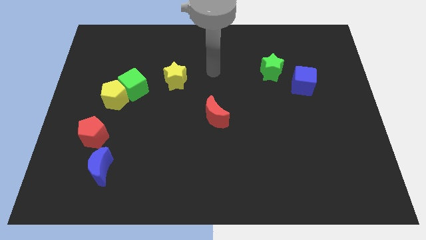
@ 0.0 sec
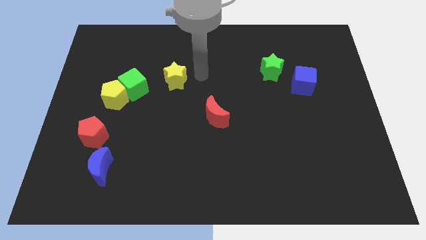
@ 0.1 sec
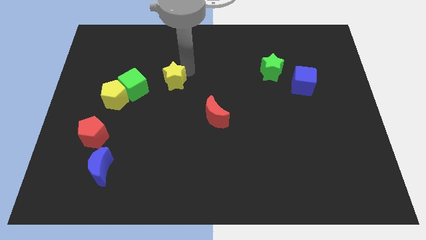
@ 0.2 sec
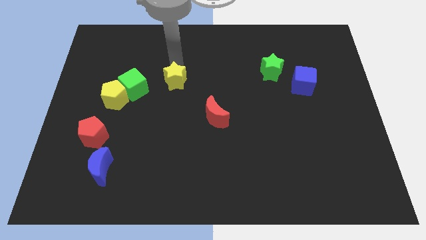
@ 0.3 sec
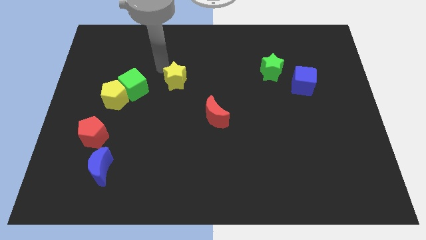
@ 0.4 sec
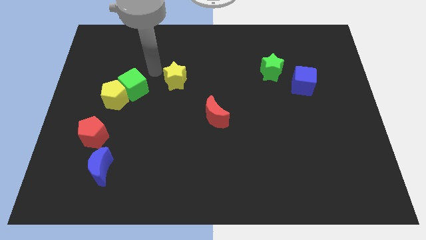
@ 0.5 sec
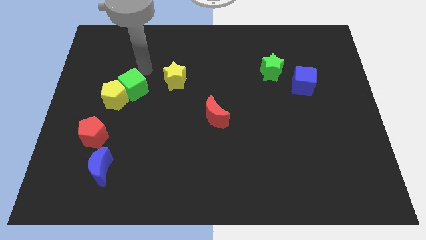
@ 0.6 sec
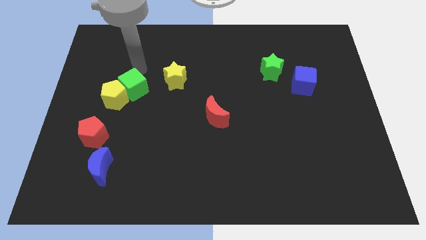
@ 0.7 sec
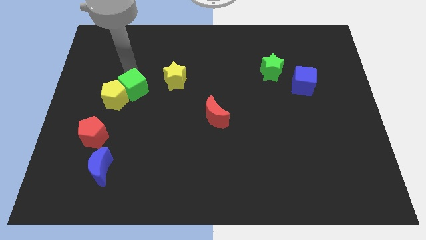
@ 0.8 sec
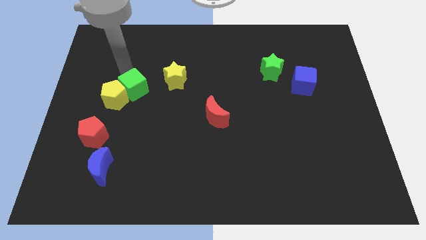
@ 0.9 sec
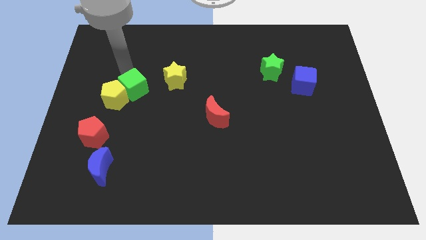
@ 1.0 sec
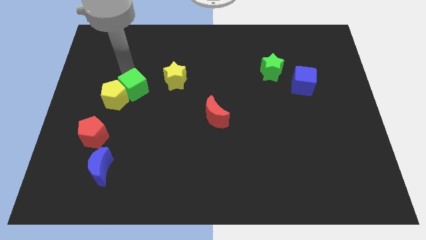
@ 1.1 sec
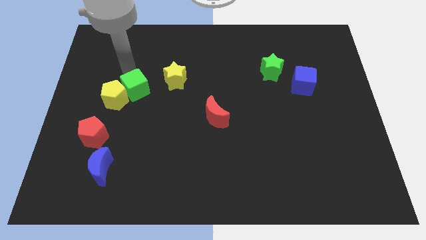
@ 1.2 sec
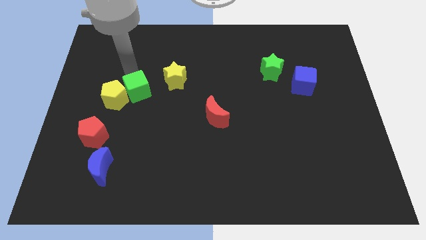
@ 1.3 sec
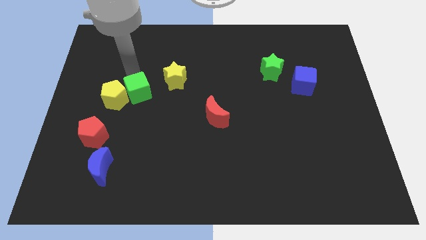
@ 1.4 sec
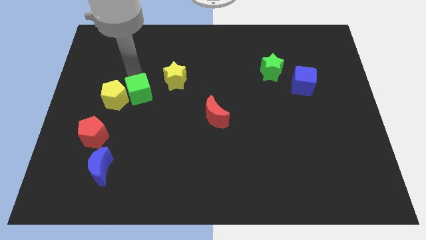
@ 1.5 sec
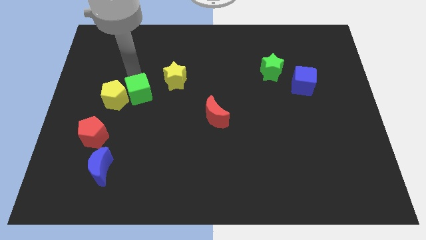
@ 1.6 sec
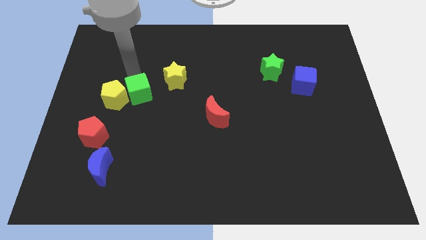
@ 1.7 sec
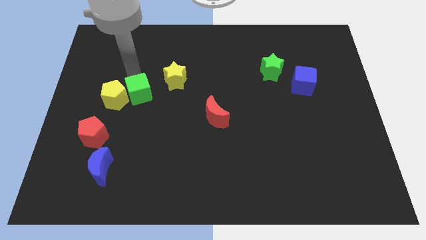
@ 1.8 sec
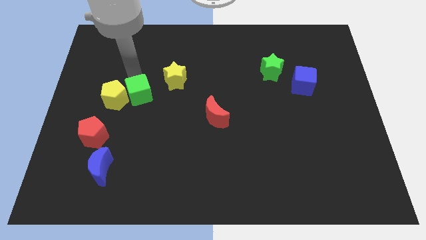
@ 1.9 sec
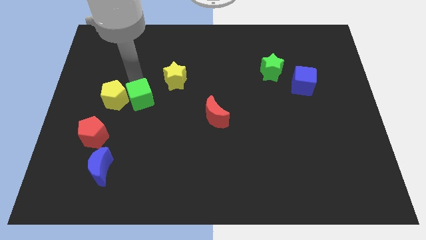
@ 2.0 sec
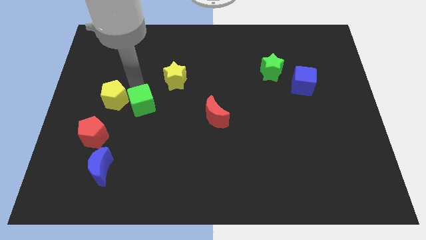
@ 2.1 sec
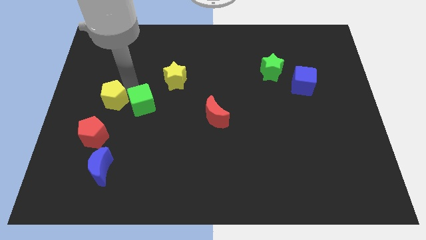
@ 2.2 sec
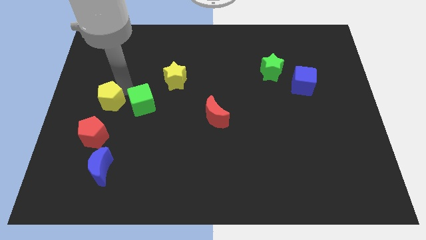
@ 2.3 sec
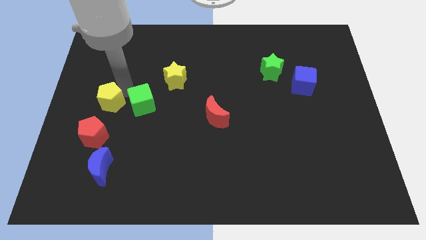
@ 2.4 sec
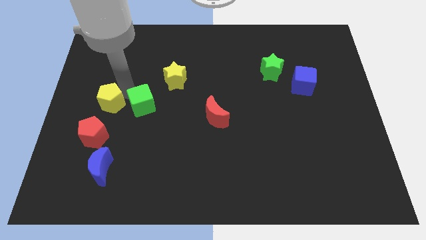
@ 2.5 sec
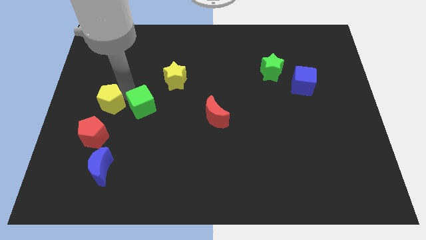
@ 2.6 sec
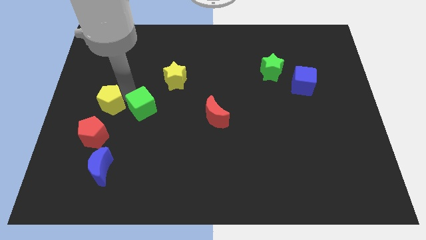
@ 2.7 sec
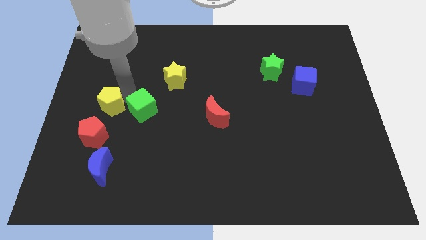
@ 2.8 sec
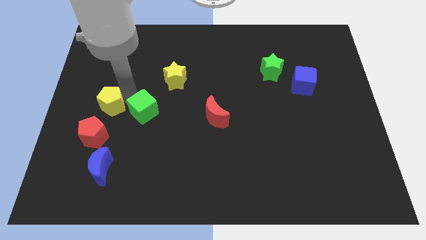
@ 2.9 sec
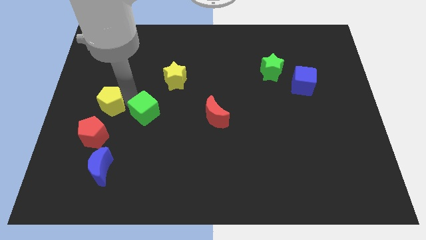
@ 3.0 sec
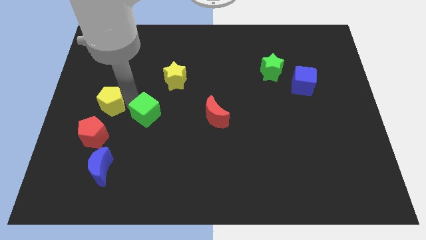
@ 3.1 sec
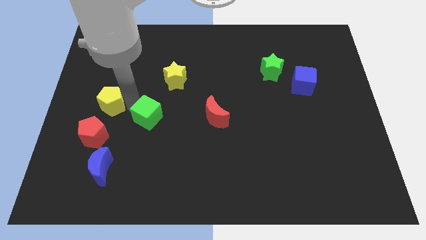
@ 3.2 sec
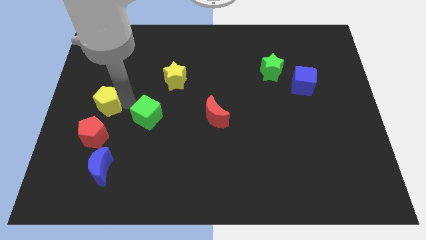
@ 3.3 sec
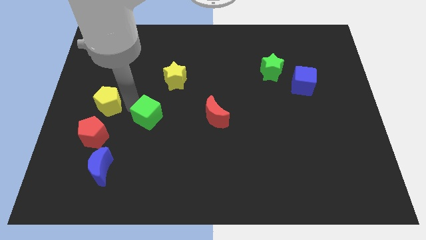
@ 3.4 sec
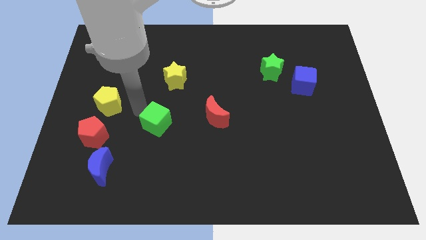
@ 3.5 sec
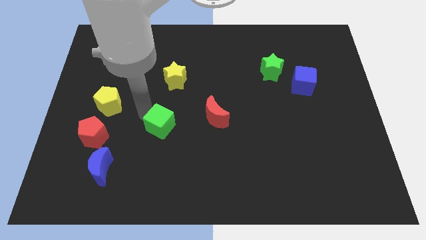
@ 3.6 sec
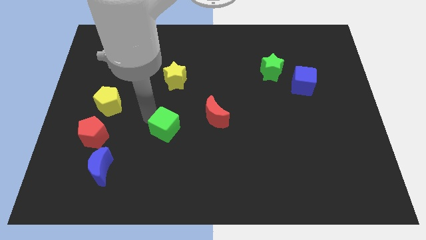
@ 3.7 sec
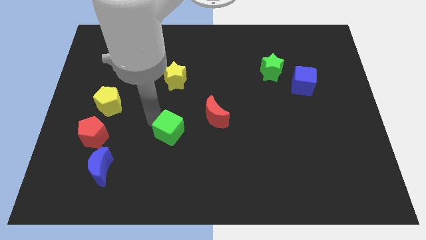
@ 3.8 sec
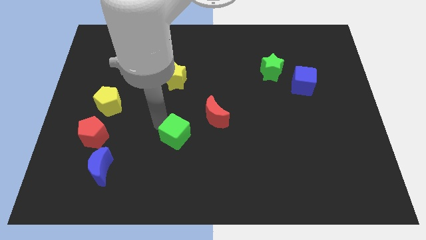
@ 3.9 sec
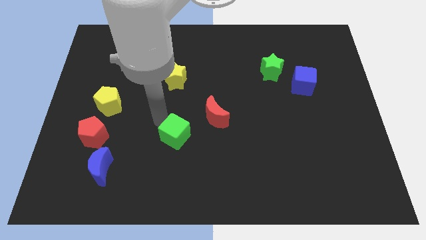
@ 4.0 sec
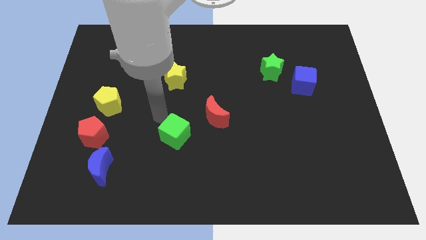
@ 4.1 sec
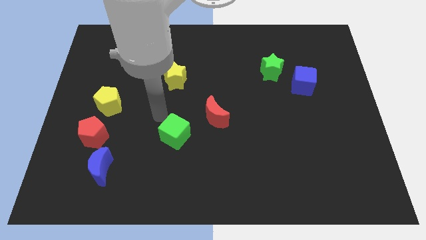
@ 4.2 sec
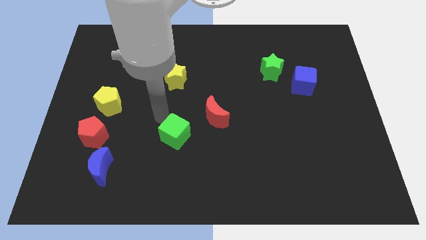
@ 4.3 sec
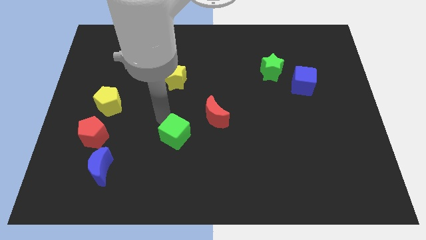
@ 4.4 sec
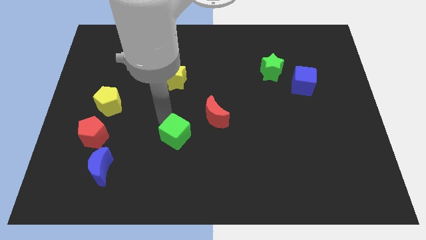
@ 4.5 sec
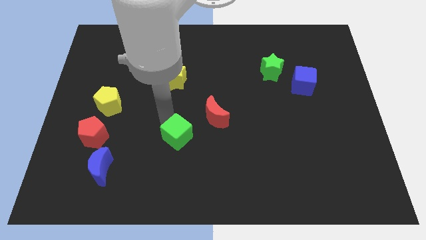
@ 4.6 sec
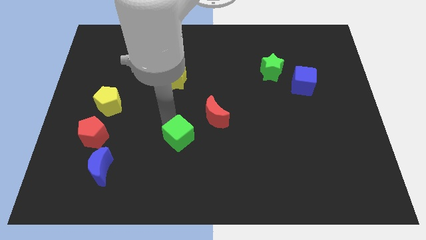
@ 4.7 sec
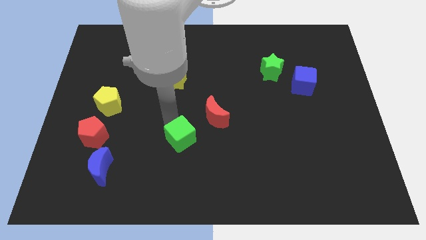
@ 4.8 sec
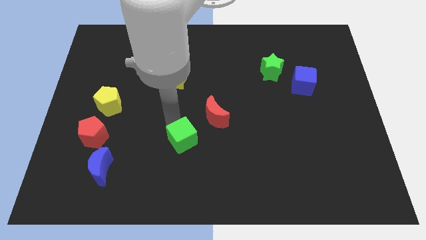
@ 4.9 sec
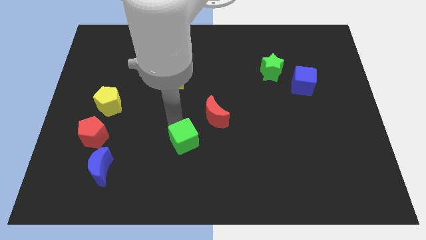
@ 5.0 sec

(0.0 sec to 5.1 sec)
push the green cube downwards and then to the right

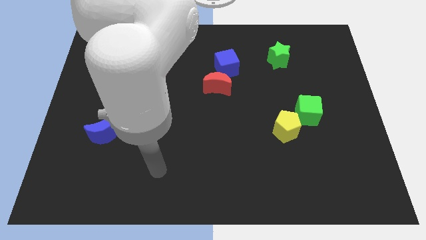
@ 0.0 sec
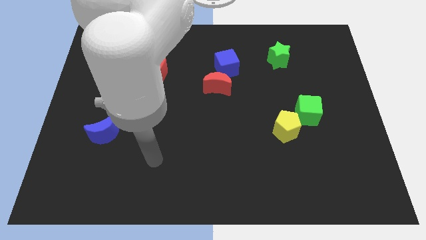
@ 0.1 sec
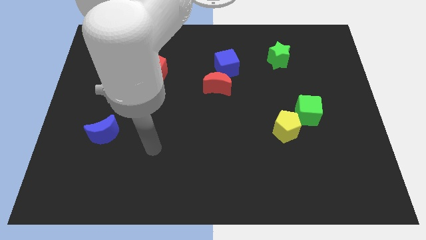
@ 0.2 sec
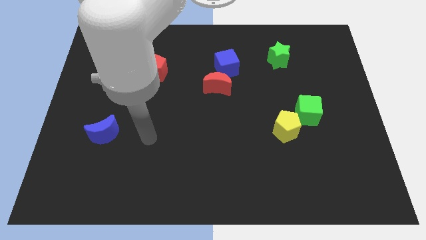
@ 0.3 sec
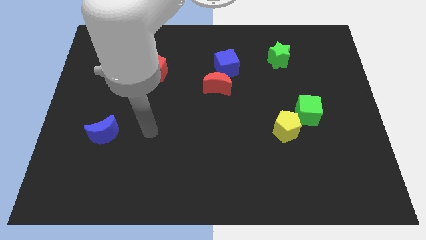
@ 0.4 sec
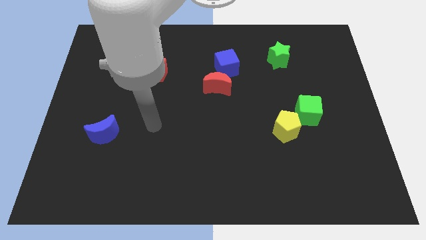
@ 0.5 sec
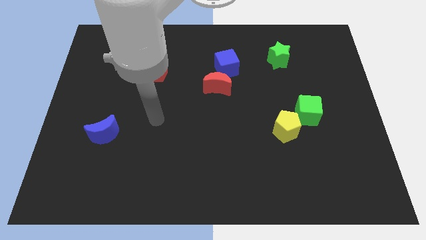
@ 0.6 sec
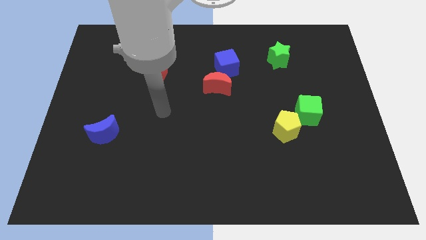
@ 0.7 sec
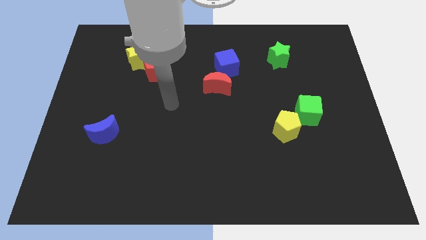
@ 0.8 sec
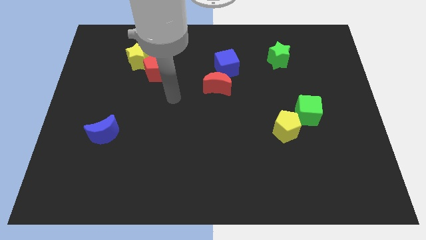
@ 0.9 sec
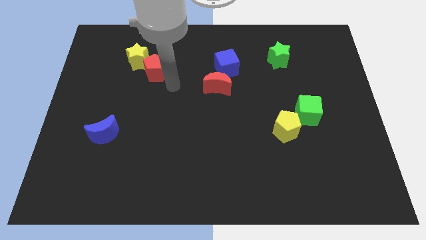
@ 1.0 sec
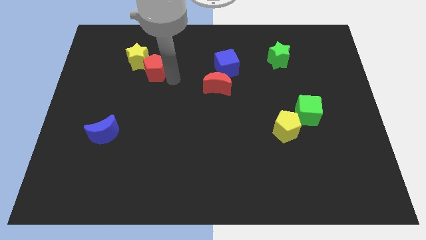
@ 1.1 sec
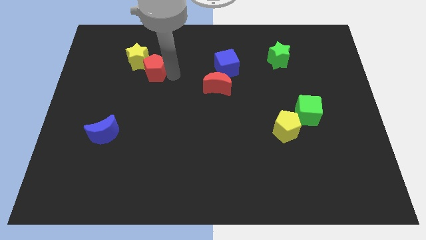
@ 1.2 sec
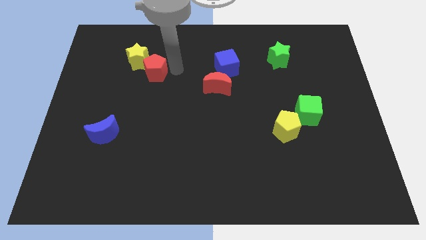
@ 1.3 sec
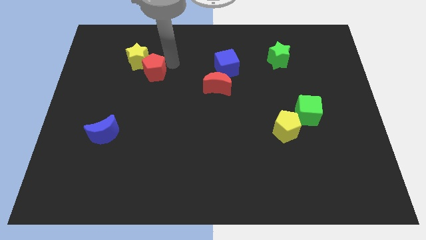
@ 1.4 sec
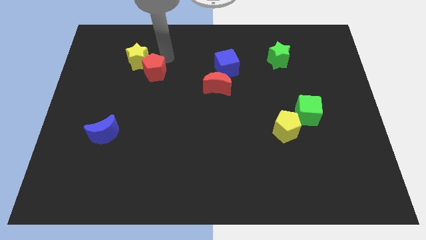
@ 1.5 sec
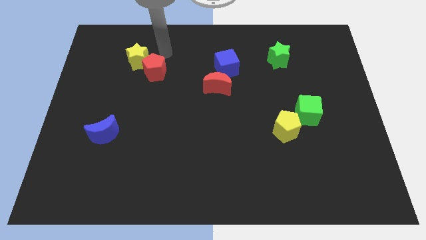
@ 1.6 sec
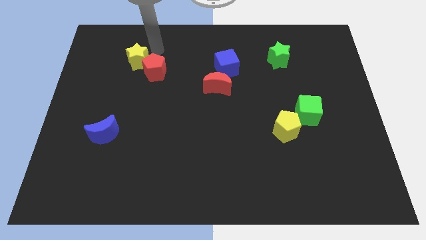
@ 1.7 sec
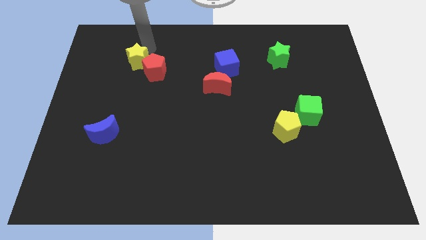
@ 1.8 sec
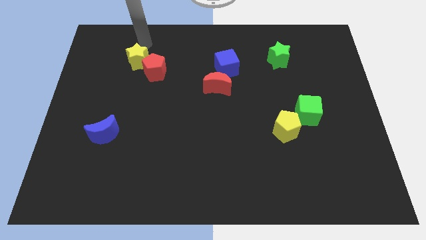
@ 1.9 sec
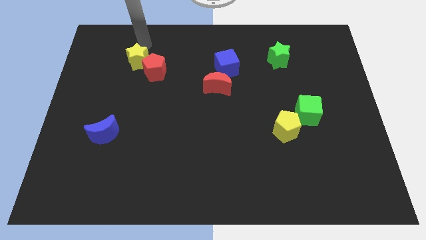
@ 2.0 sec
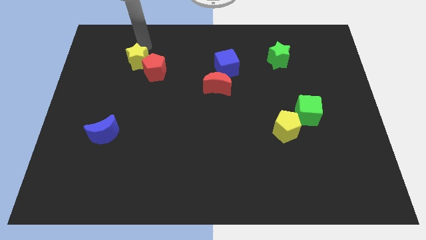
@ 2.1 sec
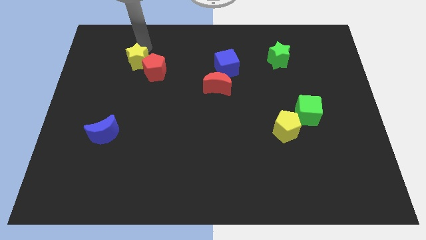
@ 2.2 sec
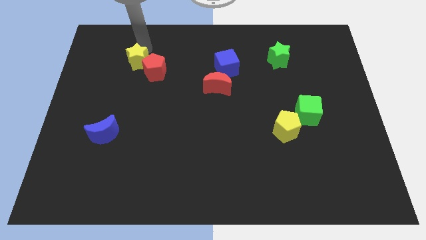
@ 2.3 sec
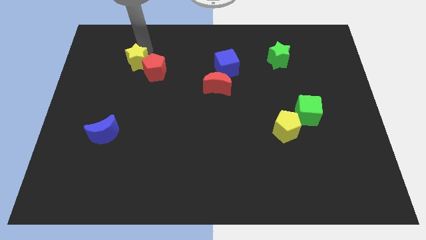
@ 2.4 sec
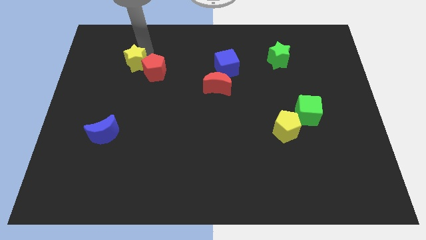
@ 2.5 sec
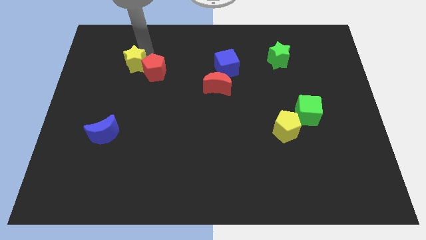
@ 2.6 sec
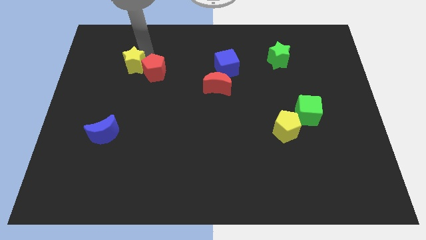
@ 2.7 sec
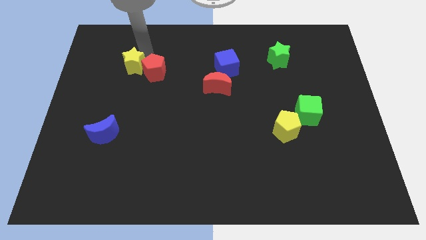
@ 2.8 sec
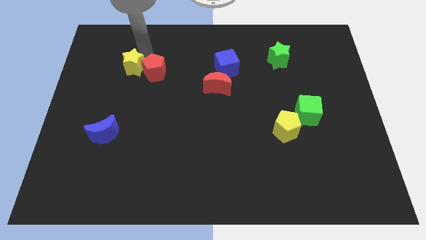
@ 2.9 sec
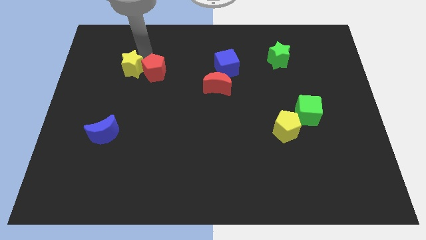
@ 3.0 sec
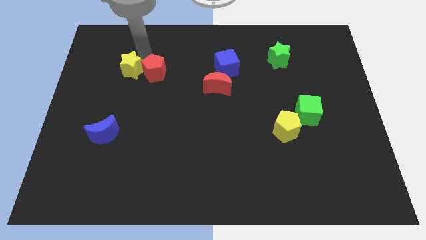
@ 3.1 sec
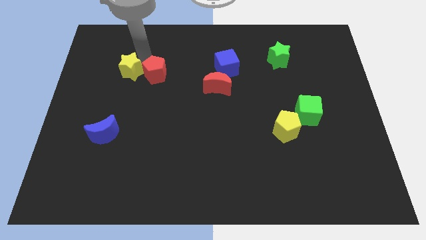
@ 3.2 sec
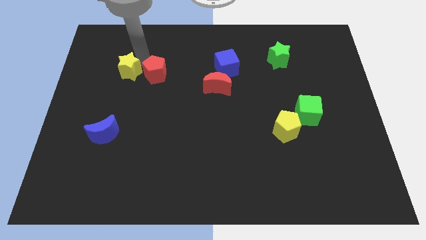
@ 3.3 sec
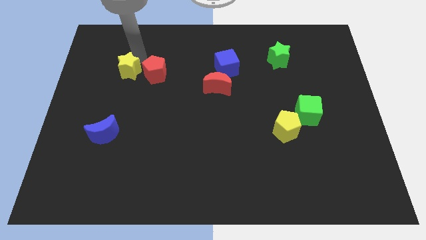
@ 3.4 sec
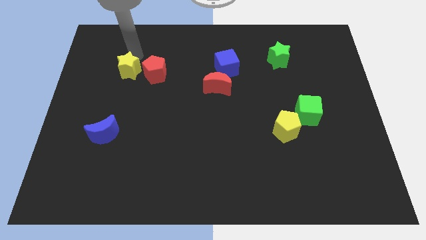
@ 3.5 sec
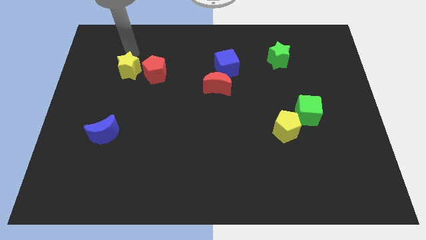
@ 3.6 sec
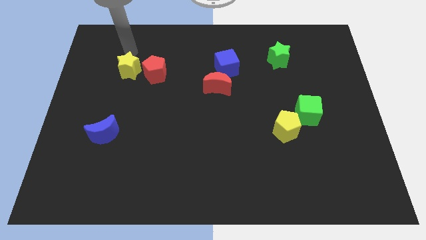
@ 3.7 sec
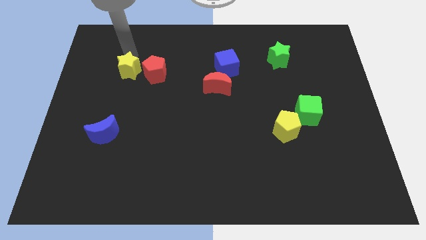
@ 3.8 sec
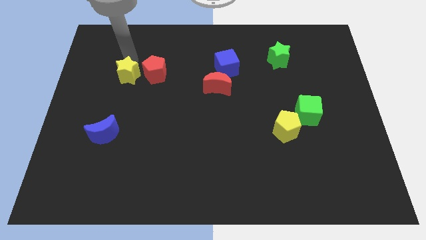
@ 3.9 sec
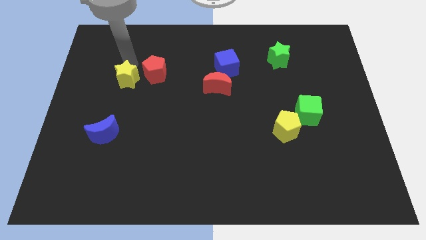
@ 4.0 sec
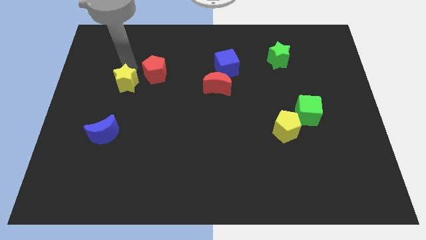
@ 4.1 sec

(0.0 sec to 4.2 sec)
push the yellow star a little bit downwards
